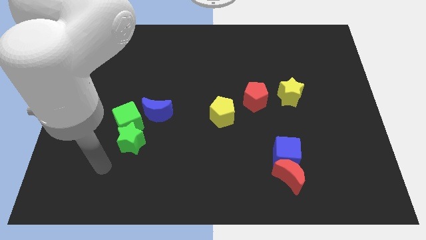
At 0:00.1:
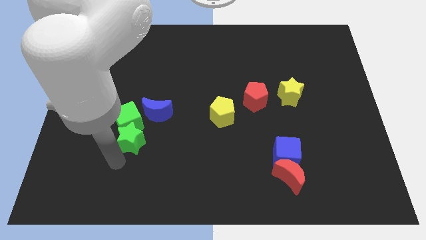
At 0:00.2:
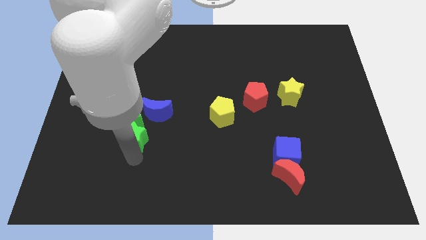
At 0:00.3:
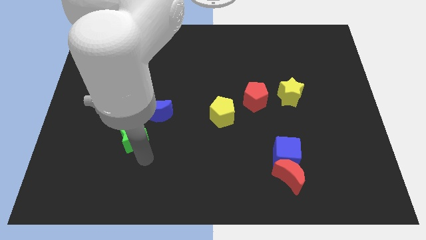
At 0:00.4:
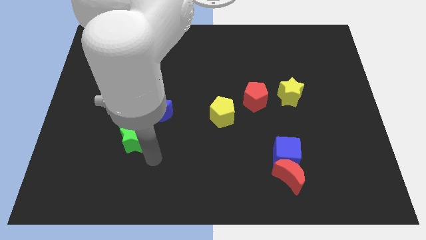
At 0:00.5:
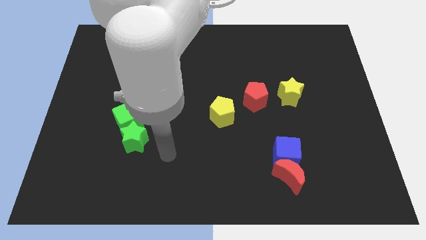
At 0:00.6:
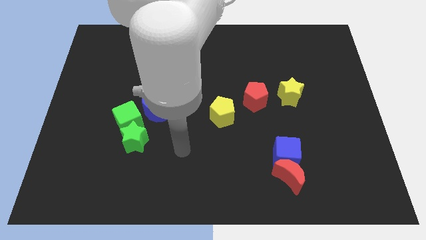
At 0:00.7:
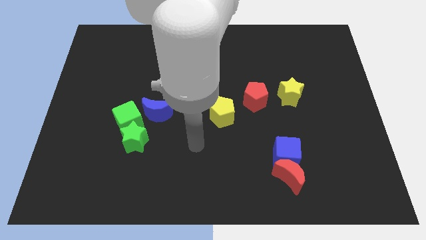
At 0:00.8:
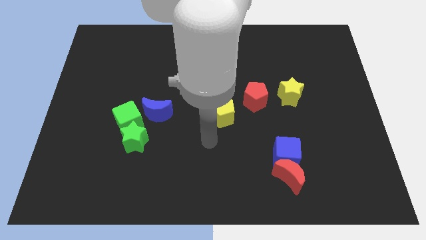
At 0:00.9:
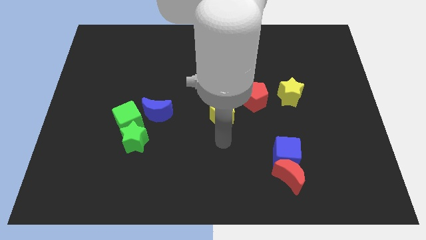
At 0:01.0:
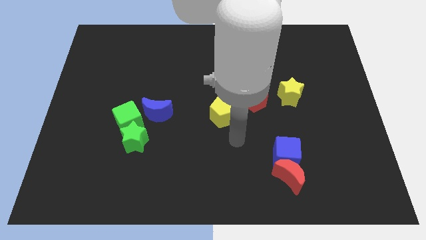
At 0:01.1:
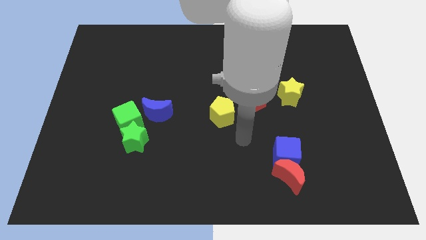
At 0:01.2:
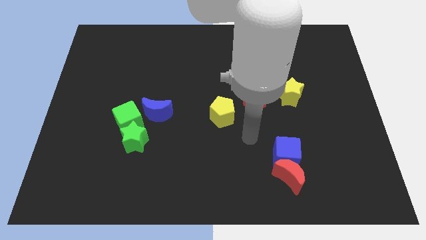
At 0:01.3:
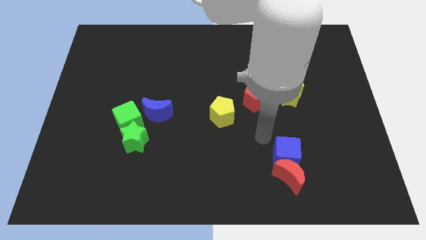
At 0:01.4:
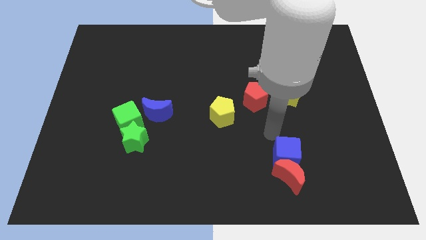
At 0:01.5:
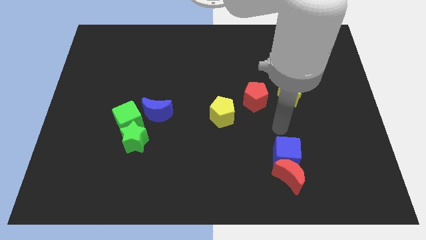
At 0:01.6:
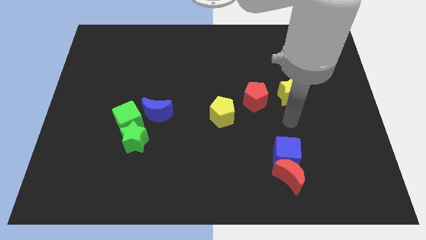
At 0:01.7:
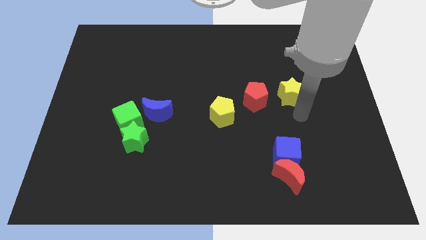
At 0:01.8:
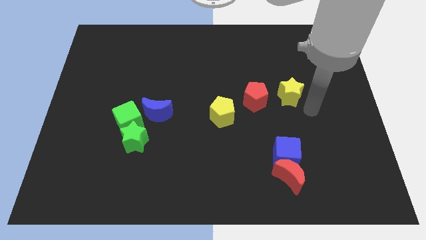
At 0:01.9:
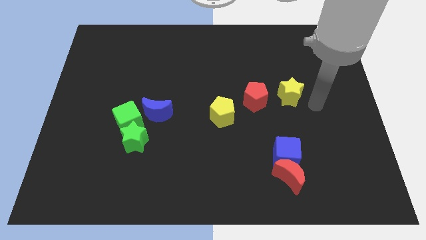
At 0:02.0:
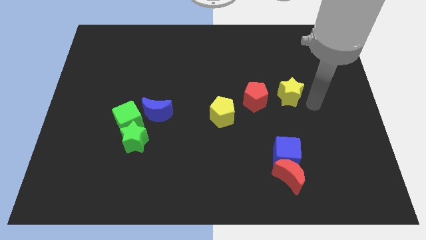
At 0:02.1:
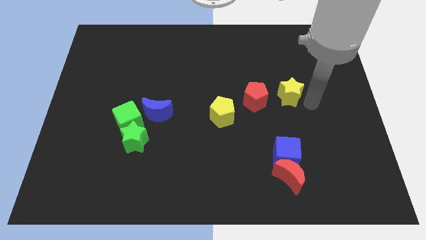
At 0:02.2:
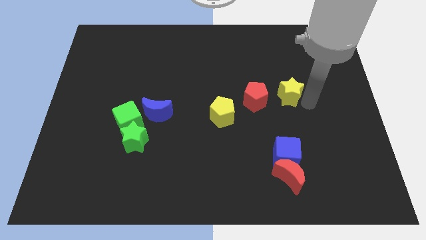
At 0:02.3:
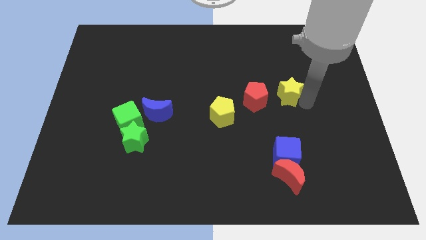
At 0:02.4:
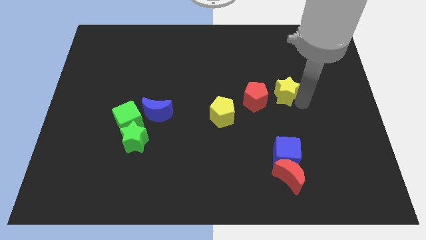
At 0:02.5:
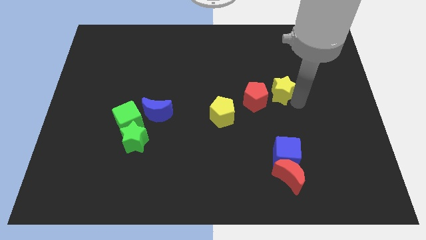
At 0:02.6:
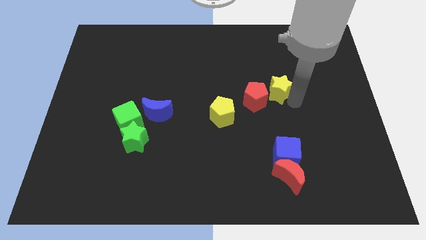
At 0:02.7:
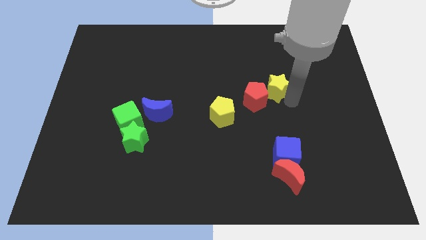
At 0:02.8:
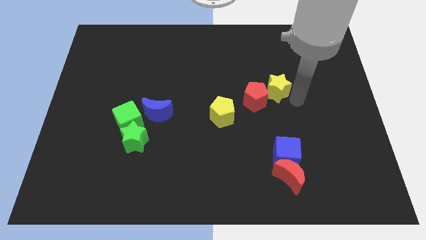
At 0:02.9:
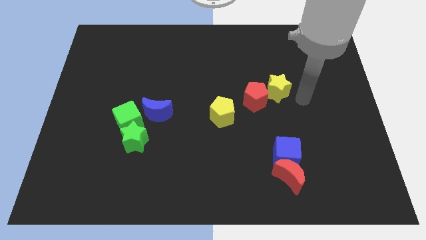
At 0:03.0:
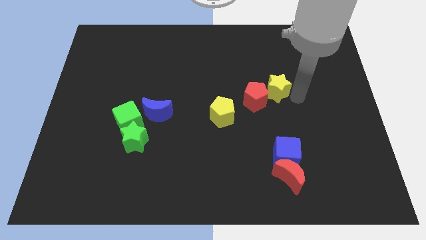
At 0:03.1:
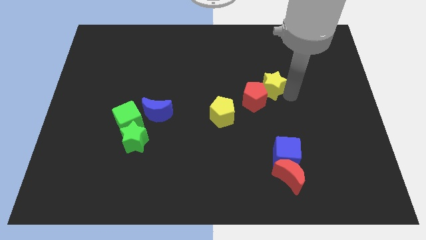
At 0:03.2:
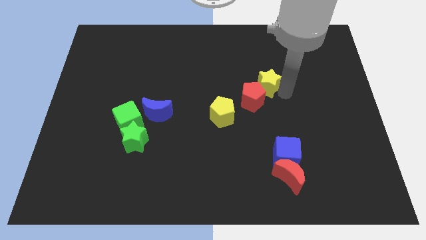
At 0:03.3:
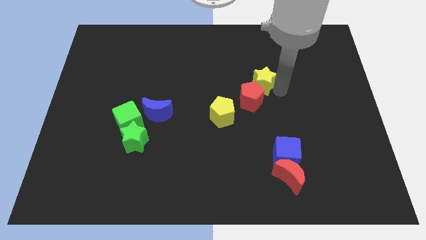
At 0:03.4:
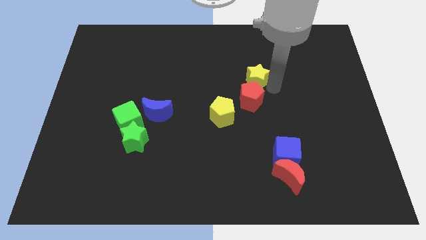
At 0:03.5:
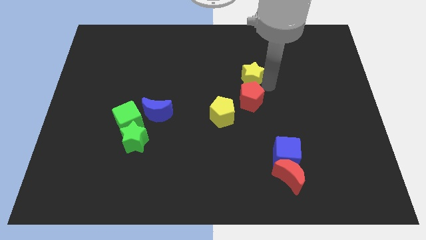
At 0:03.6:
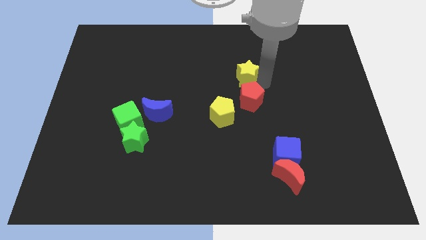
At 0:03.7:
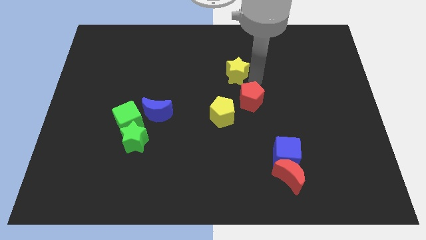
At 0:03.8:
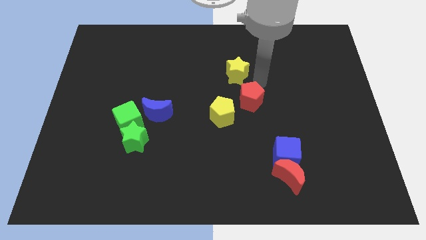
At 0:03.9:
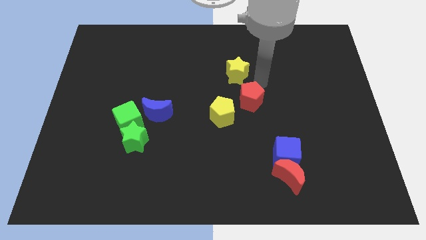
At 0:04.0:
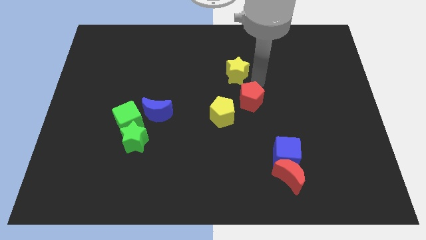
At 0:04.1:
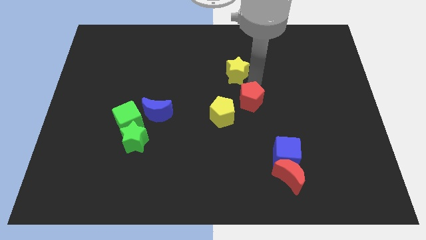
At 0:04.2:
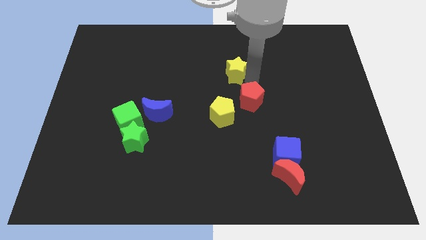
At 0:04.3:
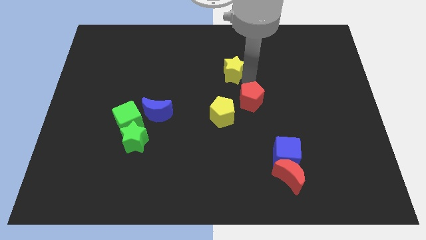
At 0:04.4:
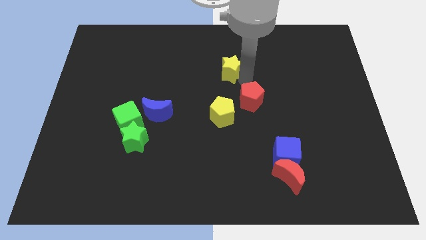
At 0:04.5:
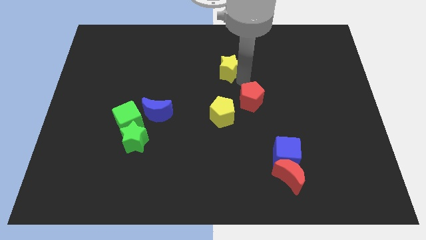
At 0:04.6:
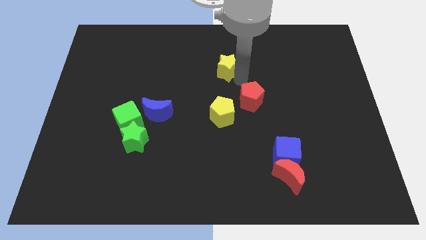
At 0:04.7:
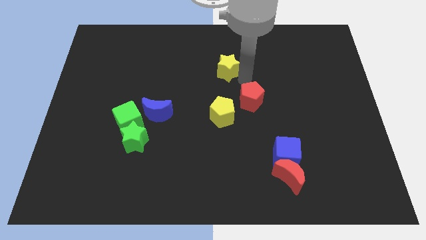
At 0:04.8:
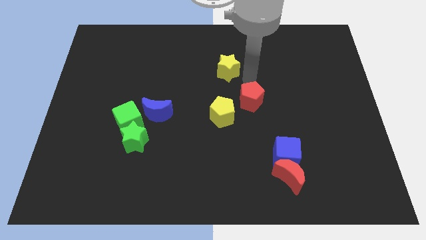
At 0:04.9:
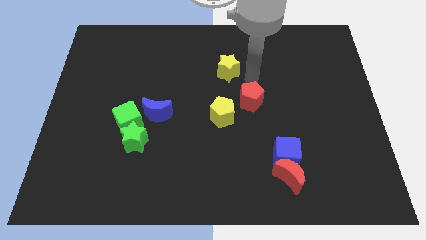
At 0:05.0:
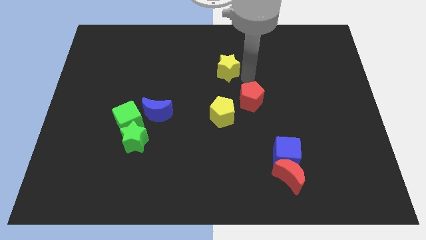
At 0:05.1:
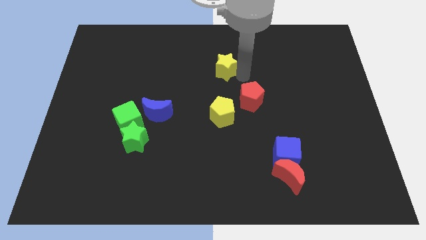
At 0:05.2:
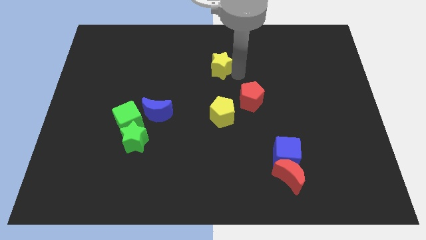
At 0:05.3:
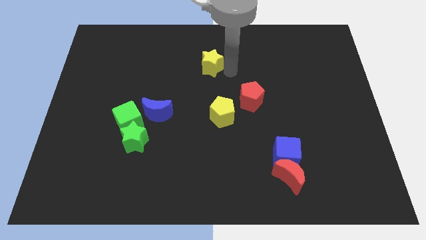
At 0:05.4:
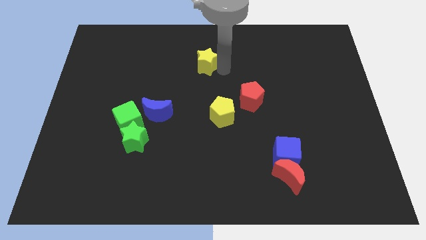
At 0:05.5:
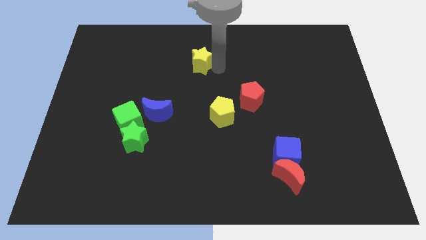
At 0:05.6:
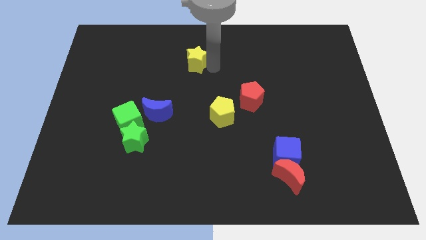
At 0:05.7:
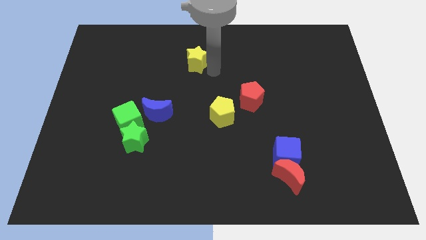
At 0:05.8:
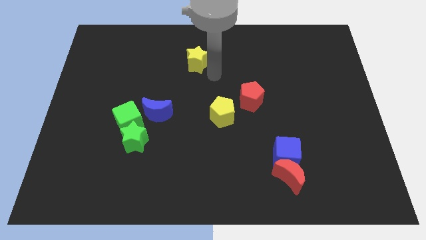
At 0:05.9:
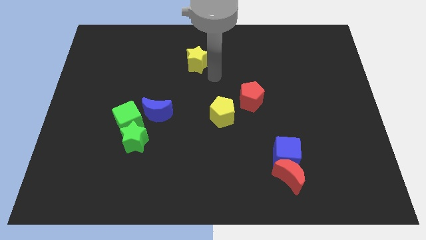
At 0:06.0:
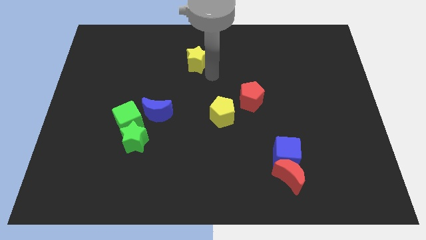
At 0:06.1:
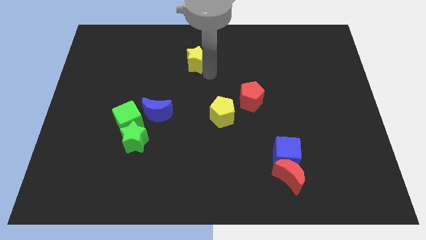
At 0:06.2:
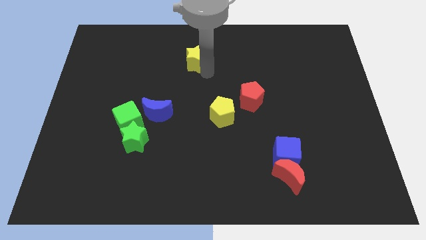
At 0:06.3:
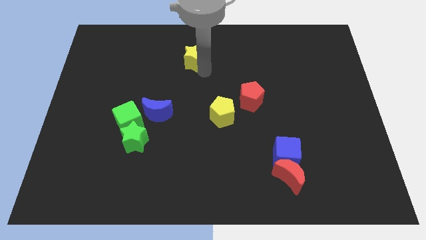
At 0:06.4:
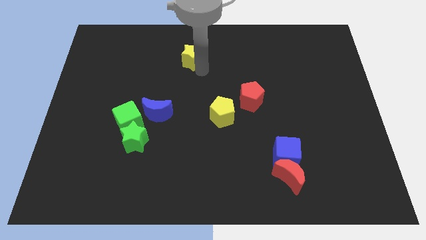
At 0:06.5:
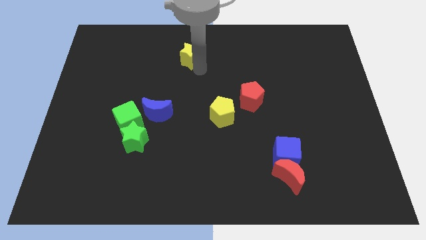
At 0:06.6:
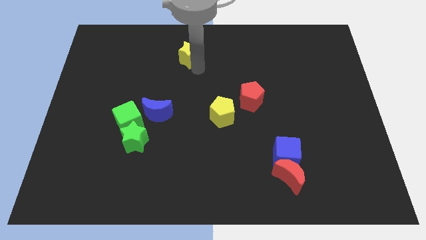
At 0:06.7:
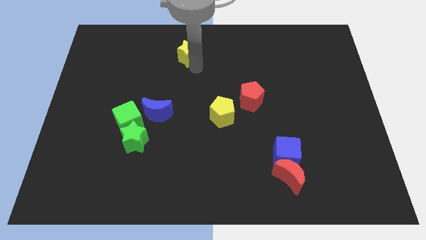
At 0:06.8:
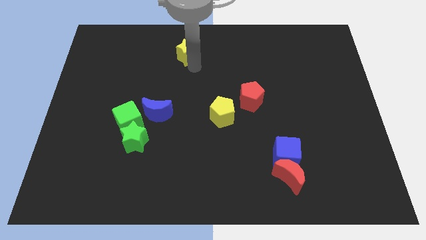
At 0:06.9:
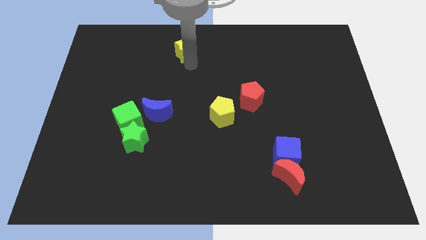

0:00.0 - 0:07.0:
slide the yellow star to the top
